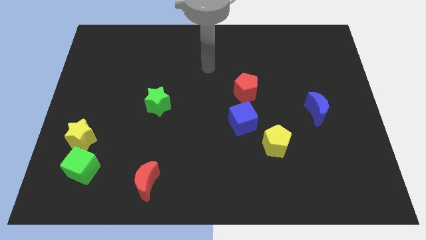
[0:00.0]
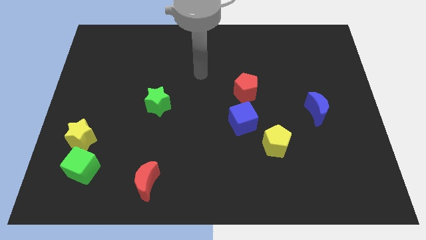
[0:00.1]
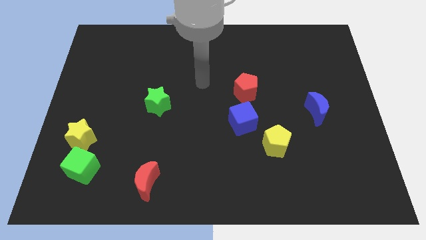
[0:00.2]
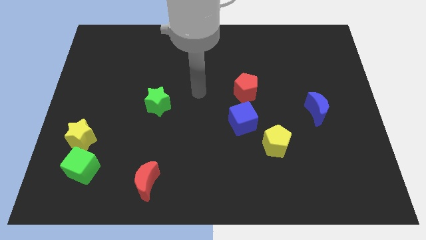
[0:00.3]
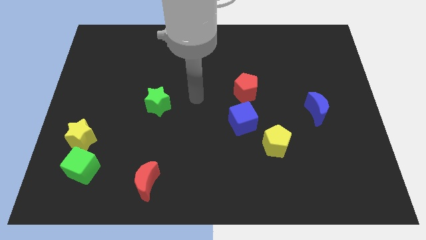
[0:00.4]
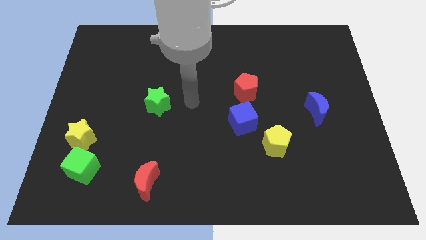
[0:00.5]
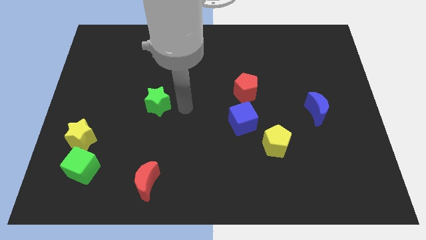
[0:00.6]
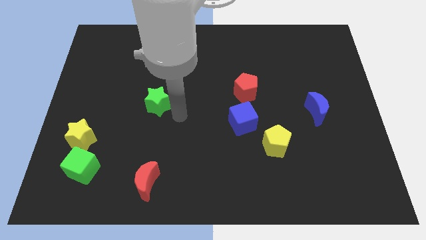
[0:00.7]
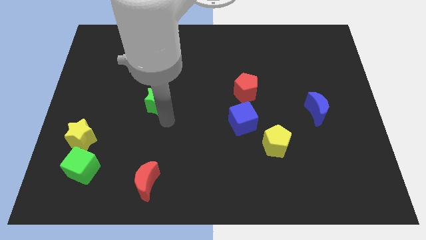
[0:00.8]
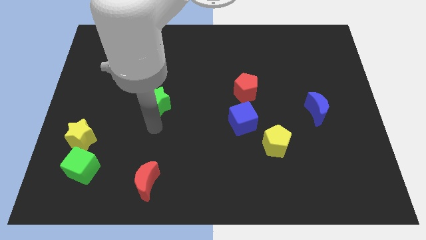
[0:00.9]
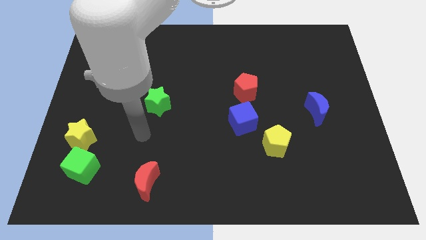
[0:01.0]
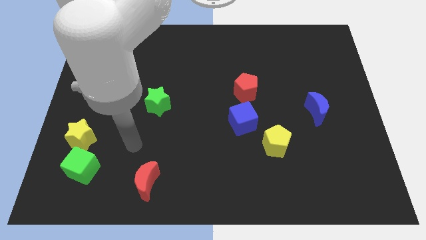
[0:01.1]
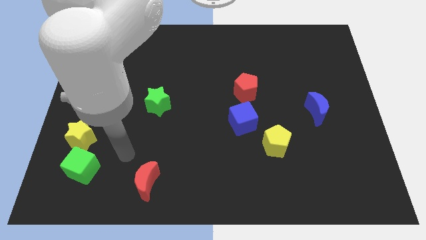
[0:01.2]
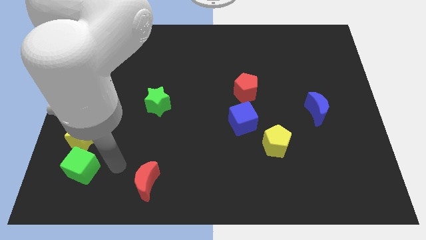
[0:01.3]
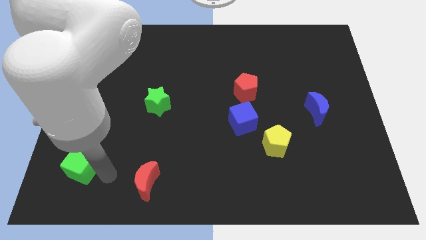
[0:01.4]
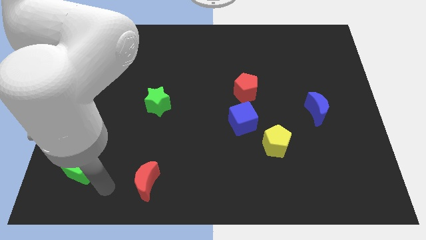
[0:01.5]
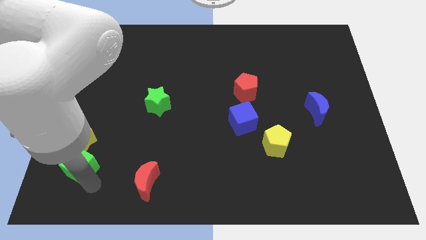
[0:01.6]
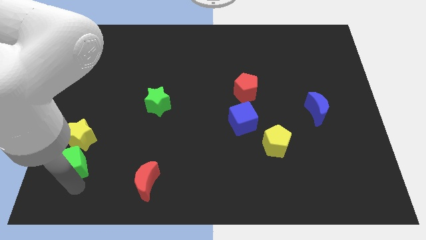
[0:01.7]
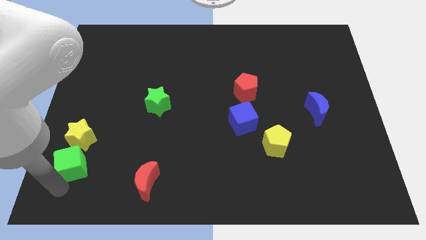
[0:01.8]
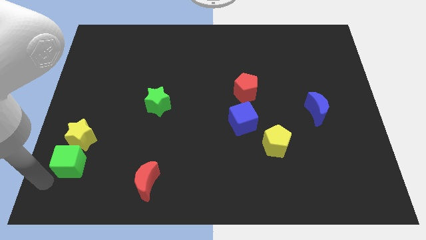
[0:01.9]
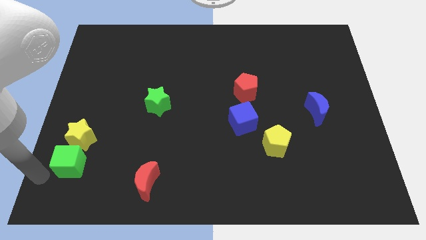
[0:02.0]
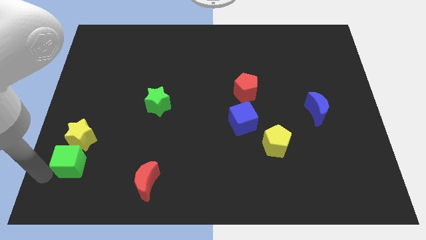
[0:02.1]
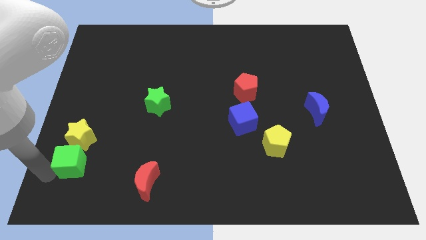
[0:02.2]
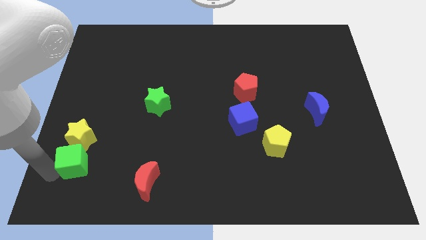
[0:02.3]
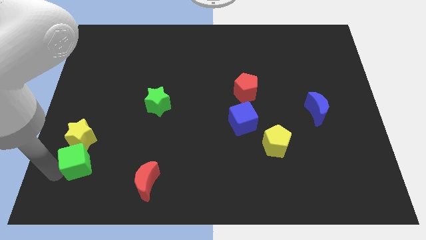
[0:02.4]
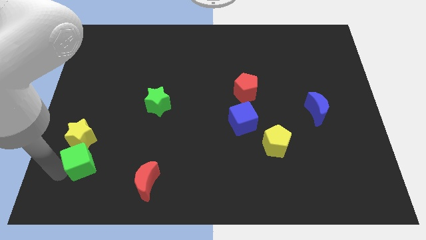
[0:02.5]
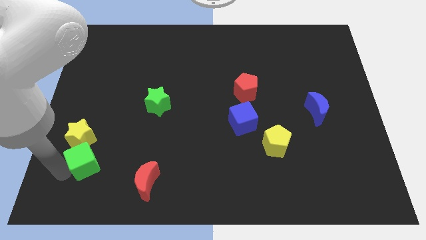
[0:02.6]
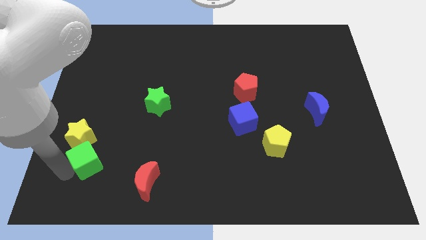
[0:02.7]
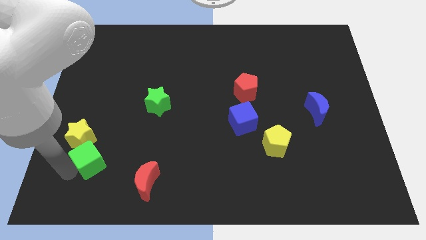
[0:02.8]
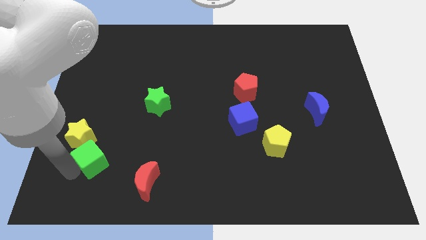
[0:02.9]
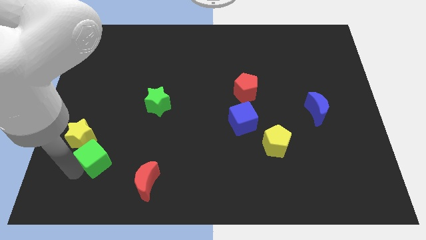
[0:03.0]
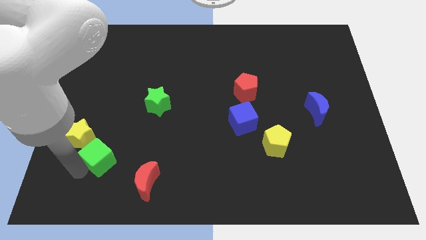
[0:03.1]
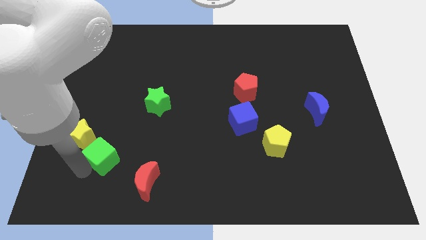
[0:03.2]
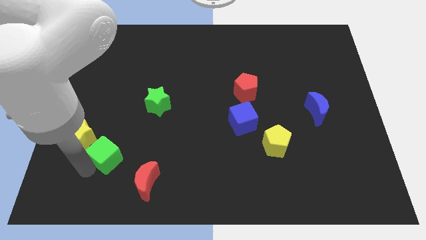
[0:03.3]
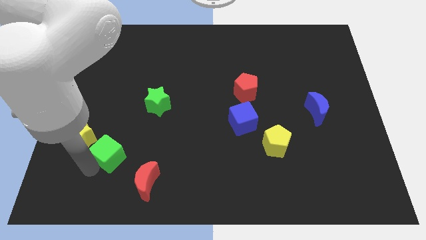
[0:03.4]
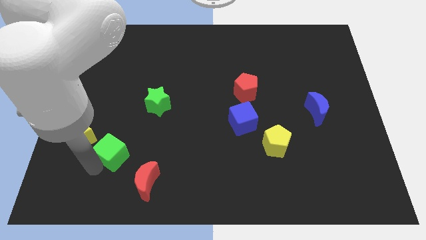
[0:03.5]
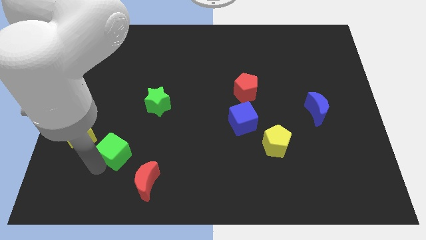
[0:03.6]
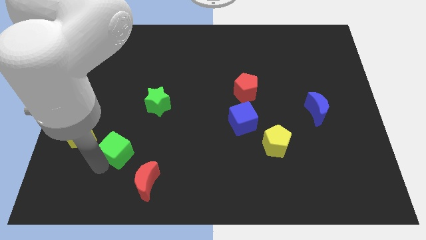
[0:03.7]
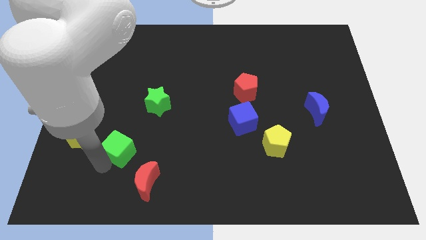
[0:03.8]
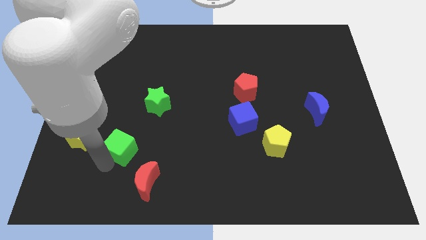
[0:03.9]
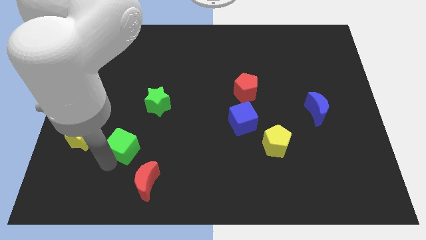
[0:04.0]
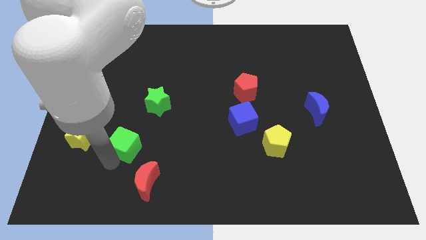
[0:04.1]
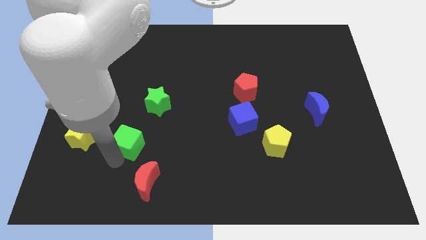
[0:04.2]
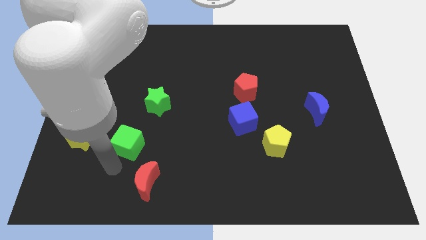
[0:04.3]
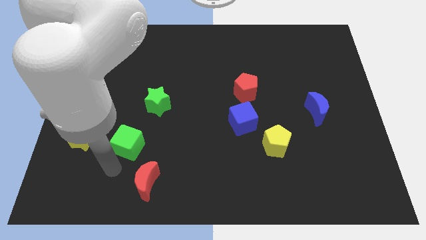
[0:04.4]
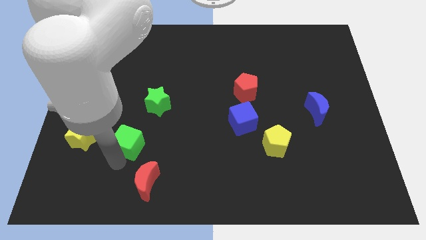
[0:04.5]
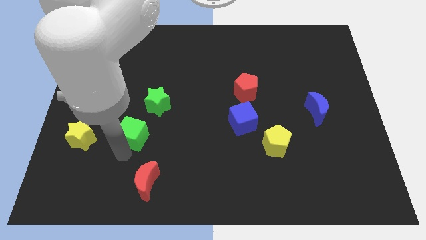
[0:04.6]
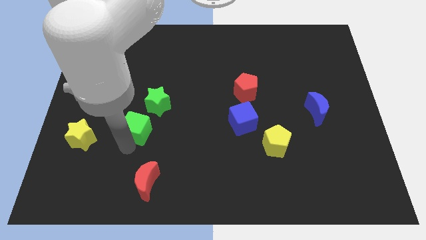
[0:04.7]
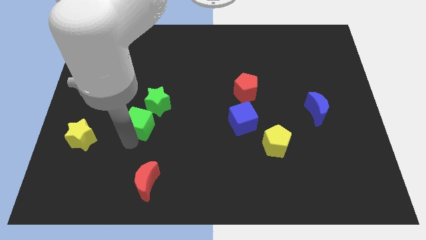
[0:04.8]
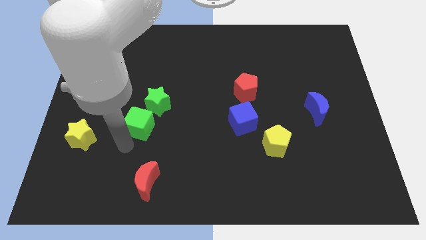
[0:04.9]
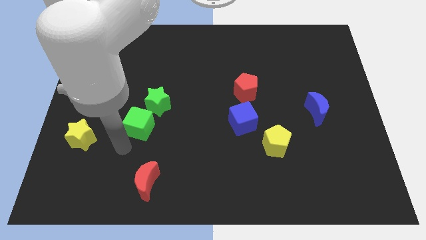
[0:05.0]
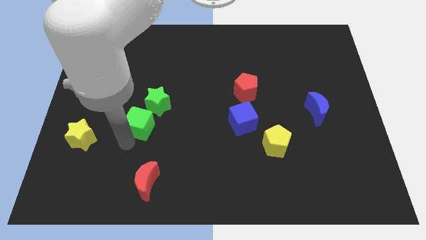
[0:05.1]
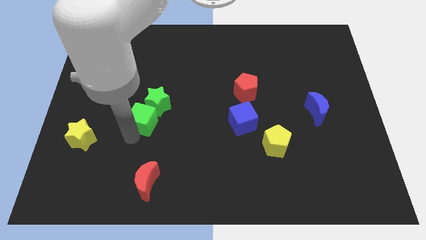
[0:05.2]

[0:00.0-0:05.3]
put the green cube to the green star

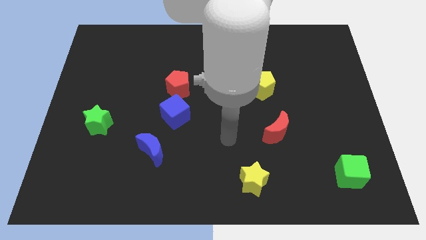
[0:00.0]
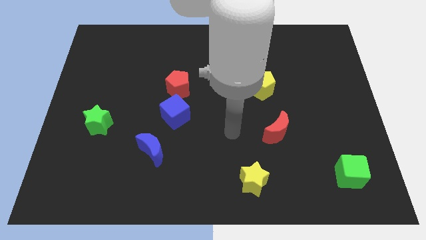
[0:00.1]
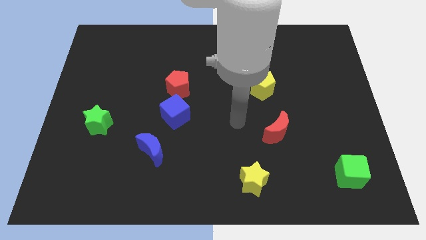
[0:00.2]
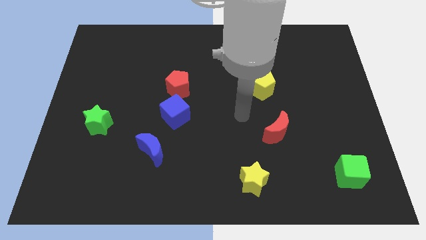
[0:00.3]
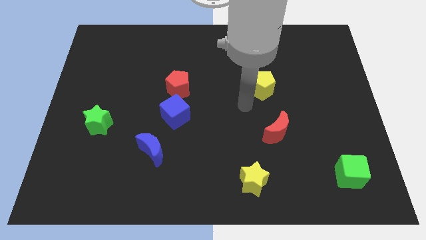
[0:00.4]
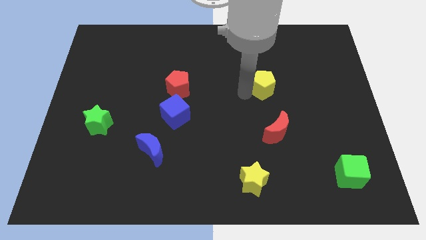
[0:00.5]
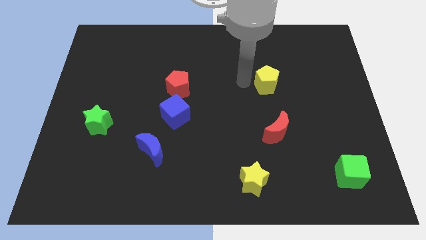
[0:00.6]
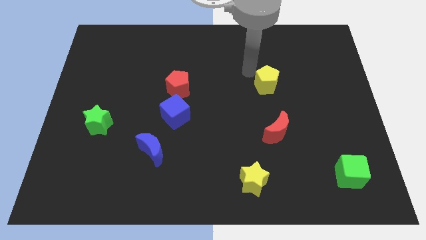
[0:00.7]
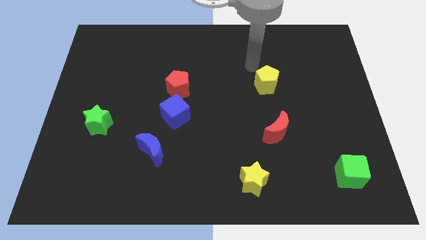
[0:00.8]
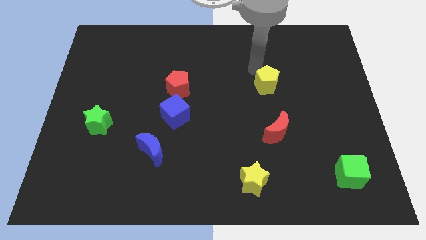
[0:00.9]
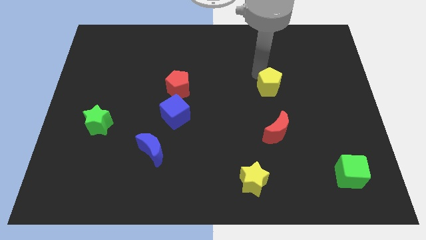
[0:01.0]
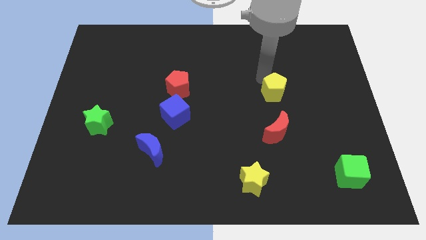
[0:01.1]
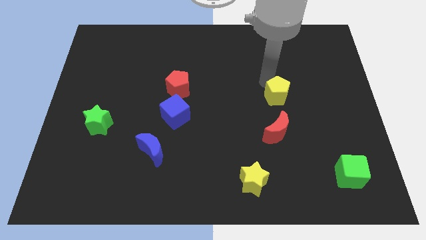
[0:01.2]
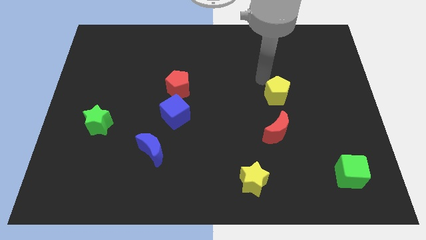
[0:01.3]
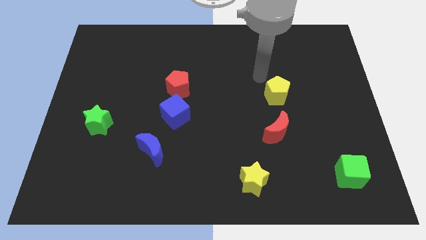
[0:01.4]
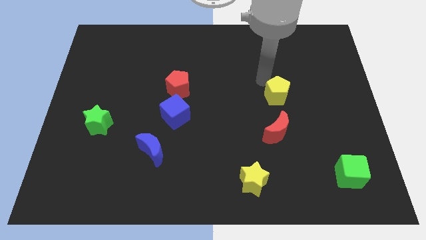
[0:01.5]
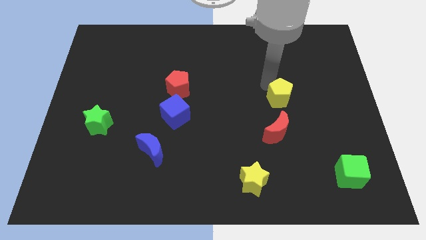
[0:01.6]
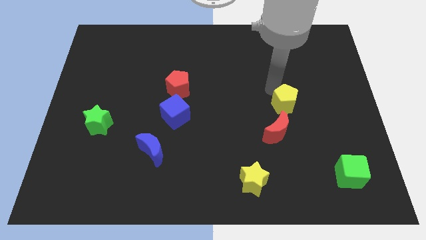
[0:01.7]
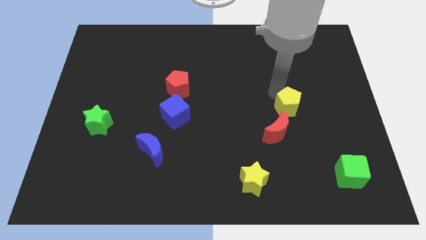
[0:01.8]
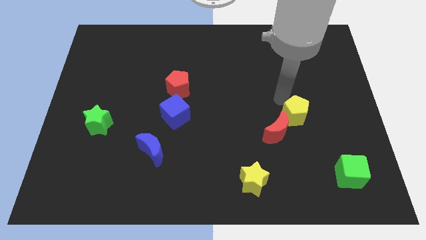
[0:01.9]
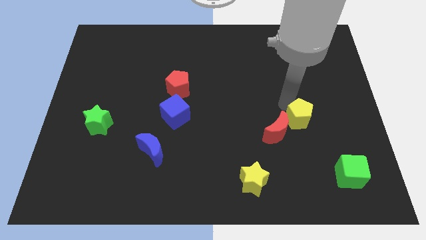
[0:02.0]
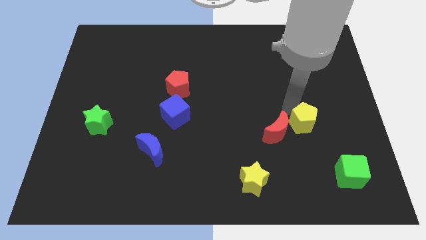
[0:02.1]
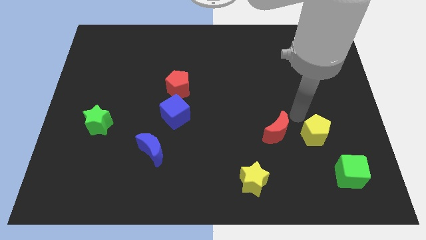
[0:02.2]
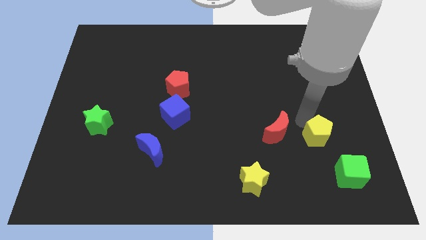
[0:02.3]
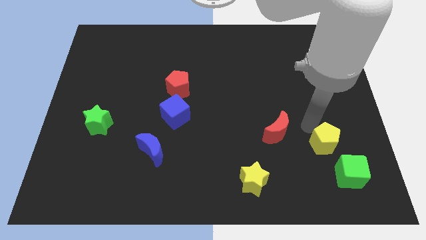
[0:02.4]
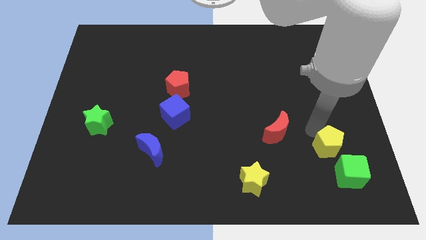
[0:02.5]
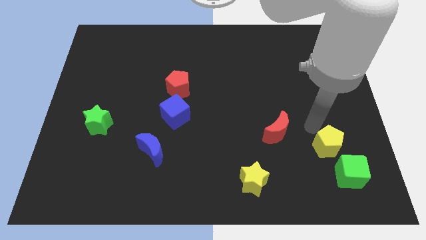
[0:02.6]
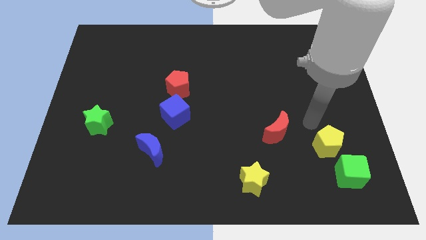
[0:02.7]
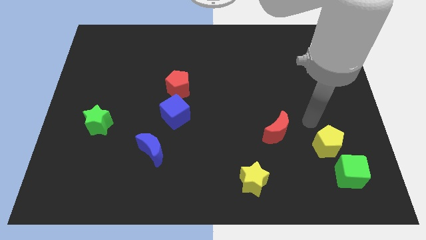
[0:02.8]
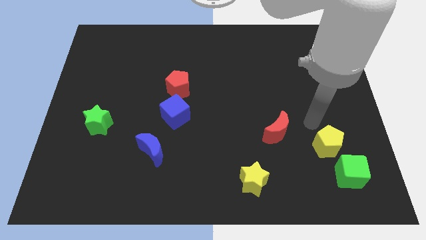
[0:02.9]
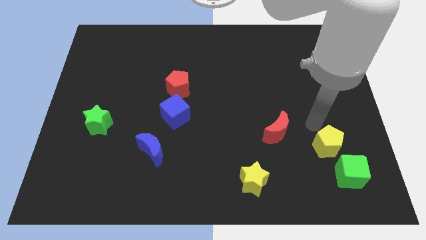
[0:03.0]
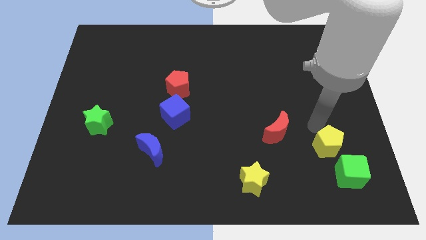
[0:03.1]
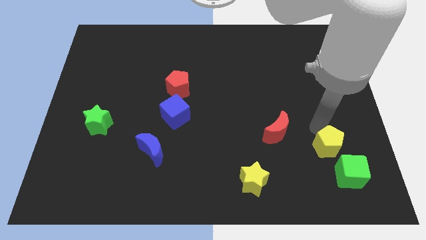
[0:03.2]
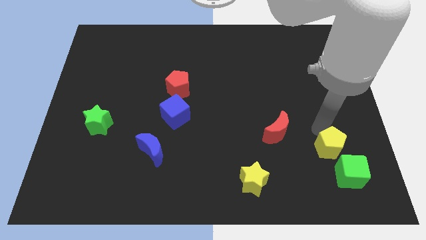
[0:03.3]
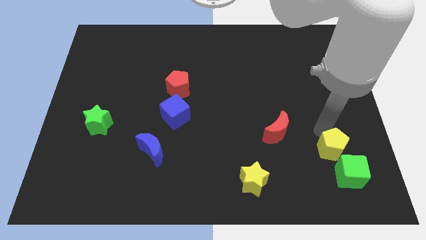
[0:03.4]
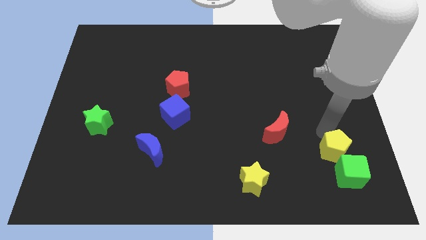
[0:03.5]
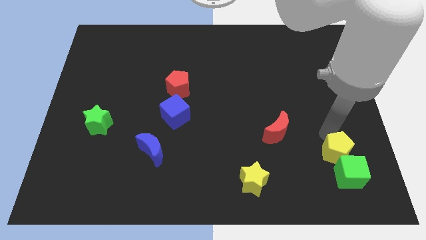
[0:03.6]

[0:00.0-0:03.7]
move the yellow pentagon close to the green cube
